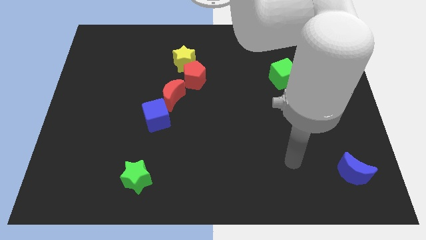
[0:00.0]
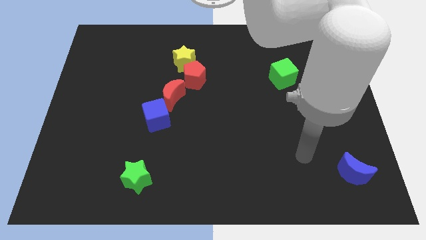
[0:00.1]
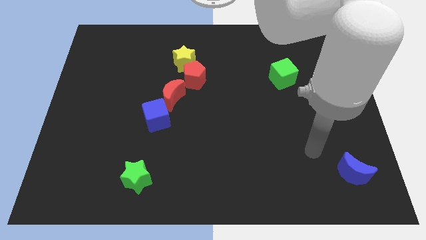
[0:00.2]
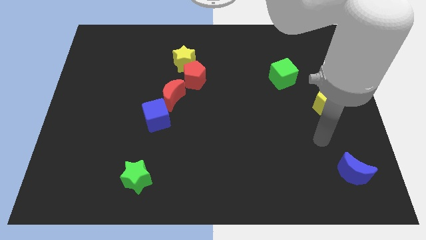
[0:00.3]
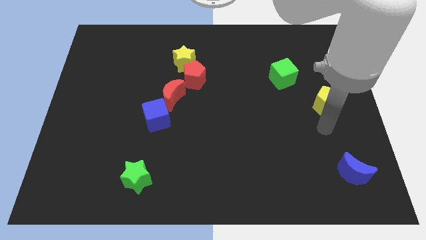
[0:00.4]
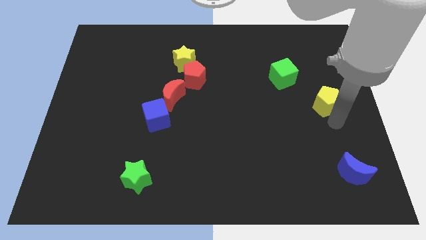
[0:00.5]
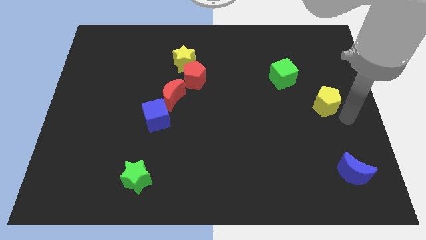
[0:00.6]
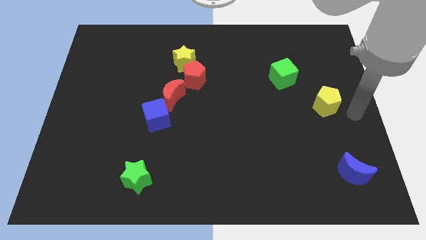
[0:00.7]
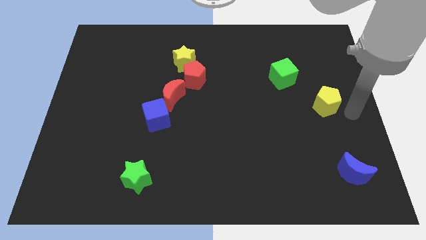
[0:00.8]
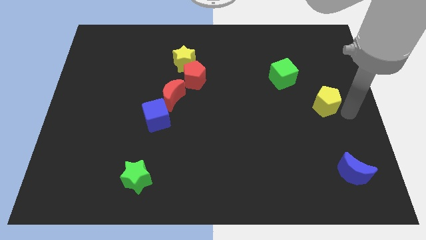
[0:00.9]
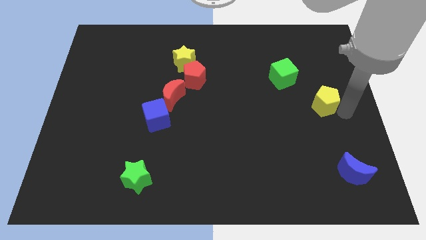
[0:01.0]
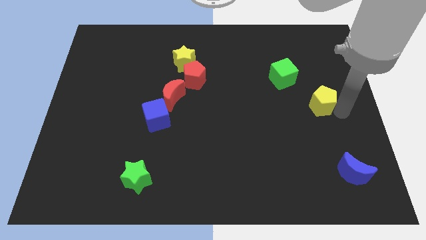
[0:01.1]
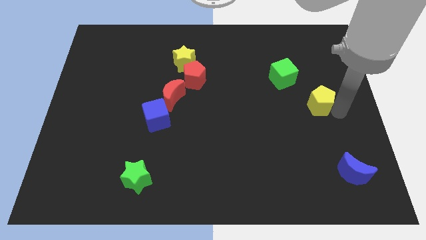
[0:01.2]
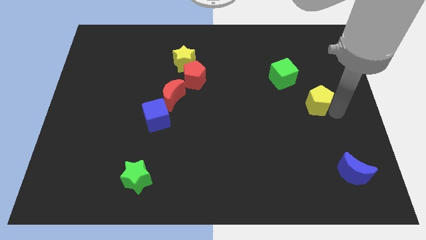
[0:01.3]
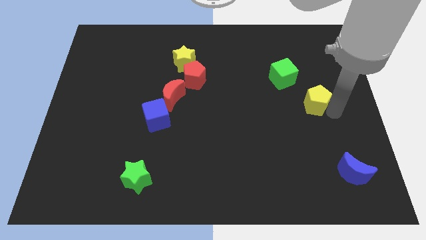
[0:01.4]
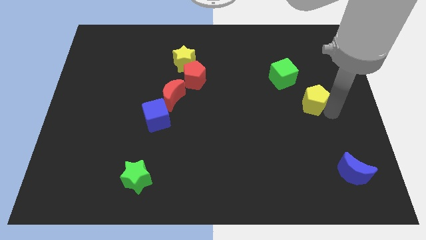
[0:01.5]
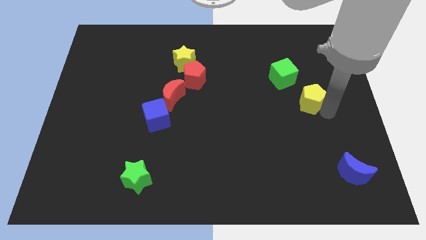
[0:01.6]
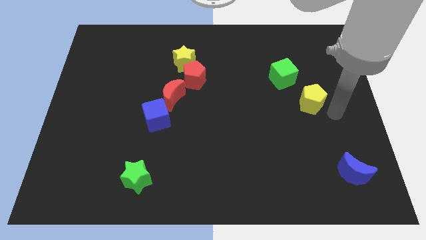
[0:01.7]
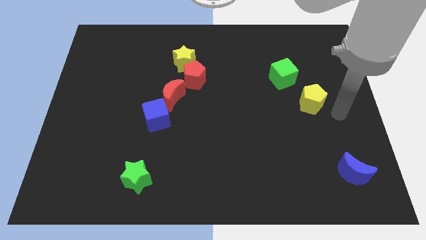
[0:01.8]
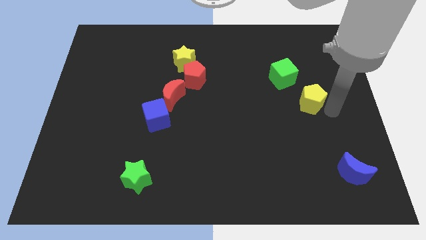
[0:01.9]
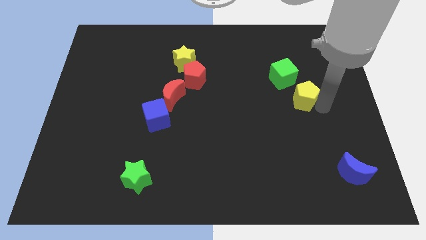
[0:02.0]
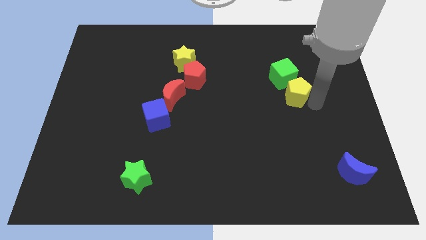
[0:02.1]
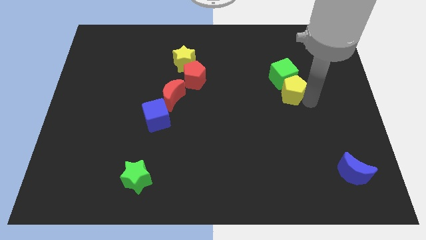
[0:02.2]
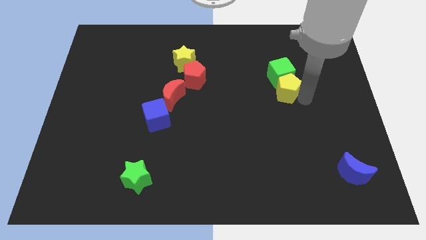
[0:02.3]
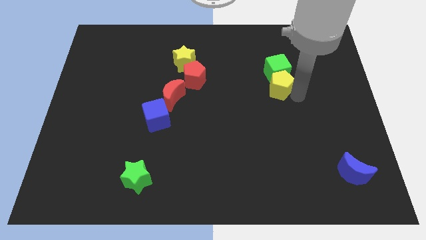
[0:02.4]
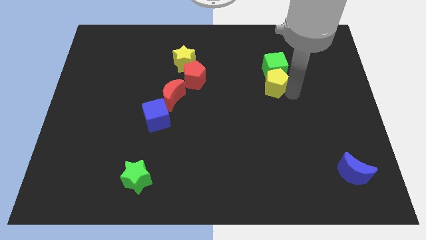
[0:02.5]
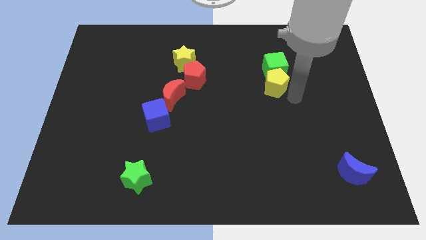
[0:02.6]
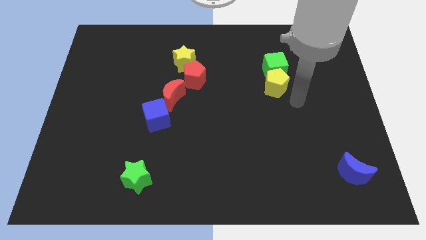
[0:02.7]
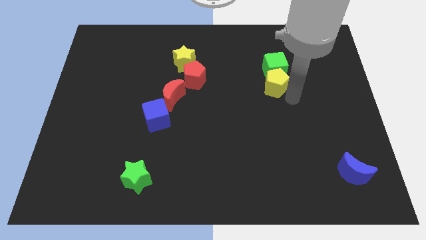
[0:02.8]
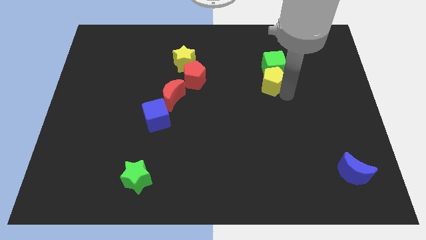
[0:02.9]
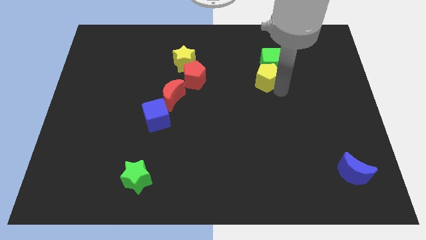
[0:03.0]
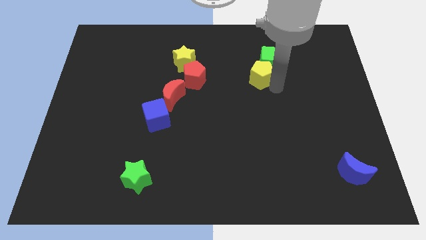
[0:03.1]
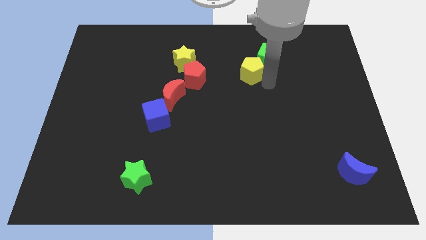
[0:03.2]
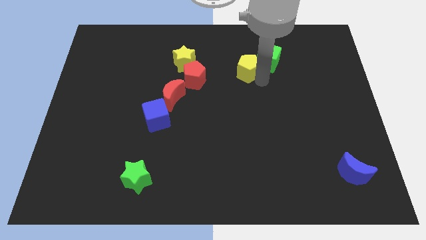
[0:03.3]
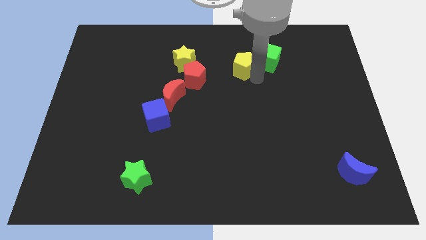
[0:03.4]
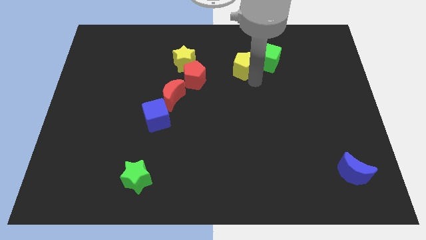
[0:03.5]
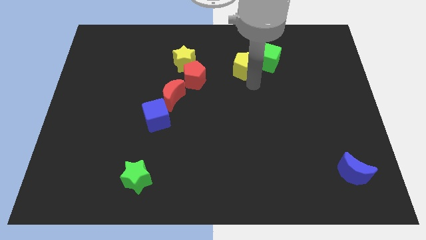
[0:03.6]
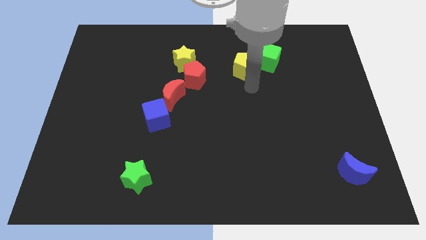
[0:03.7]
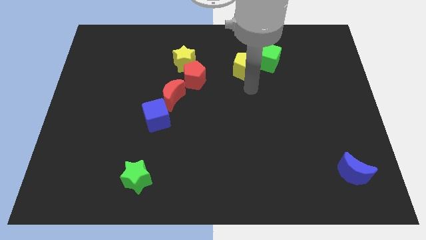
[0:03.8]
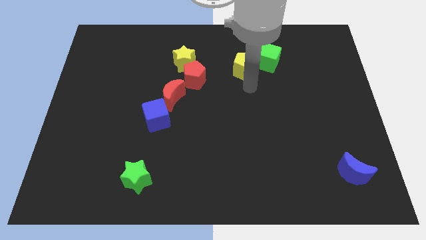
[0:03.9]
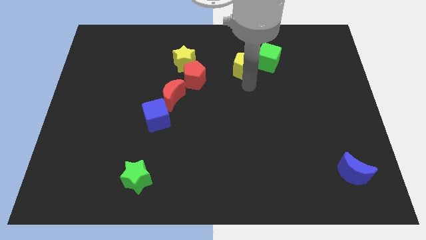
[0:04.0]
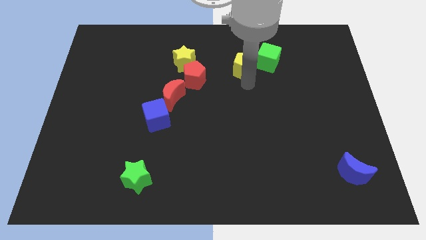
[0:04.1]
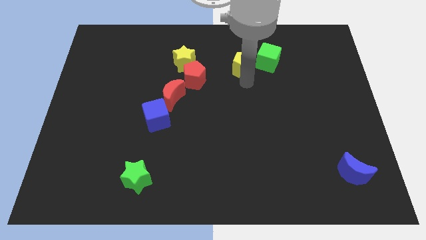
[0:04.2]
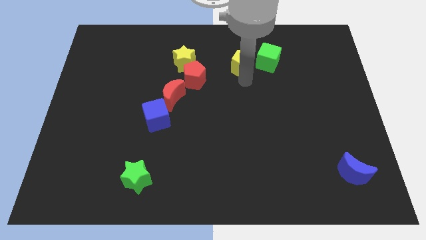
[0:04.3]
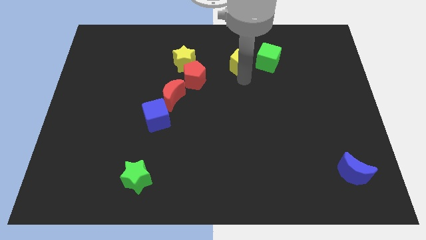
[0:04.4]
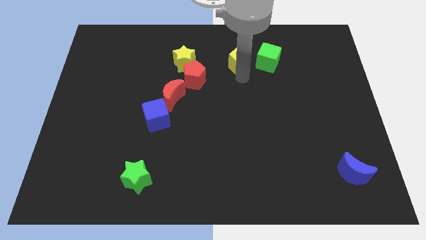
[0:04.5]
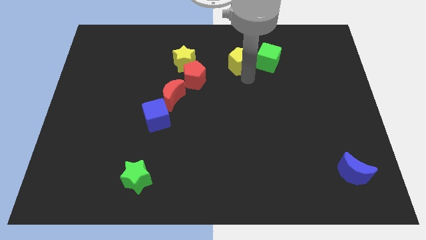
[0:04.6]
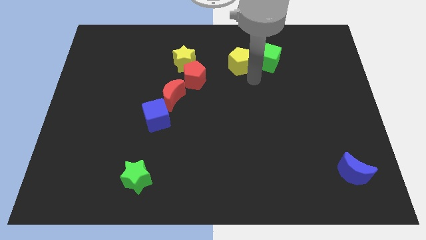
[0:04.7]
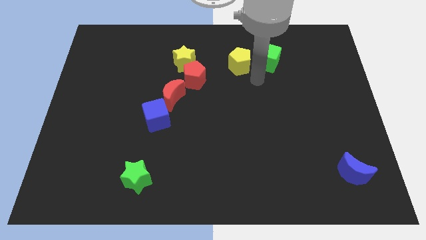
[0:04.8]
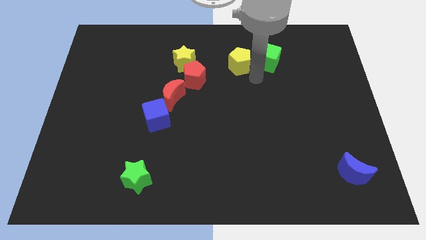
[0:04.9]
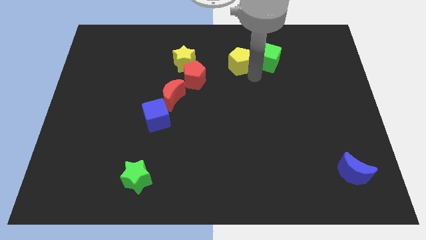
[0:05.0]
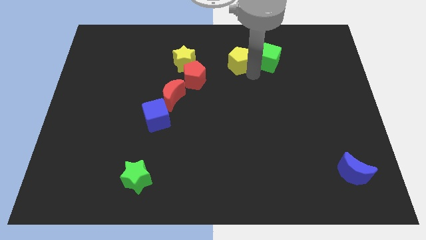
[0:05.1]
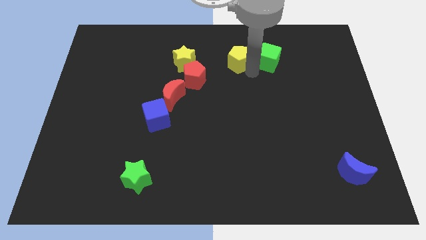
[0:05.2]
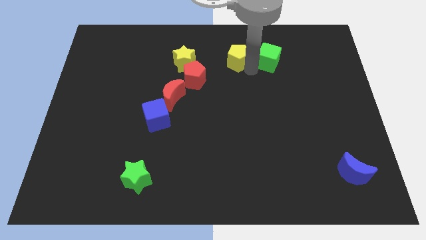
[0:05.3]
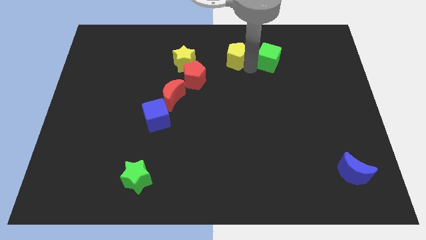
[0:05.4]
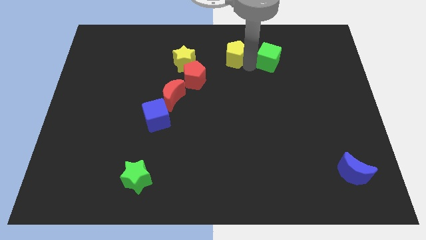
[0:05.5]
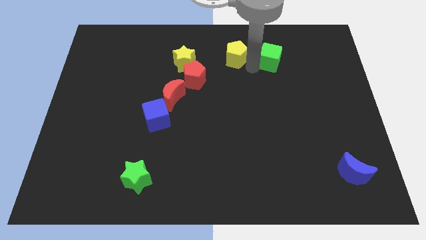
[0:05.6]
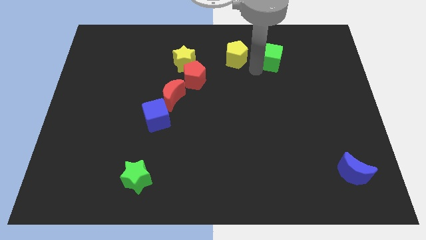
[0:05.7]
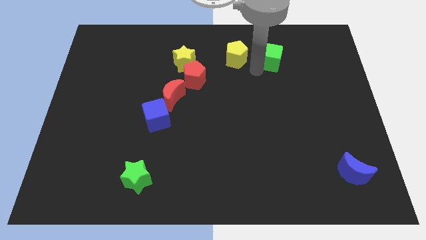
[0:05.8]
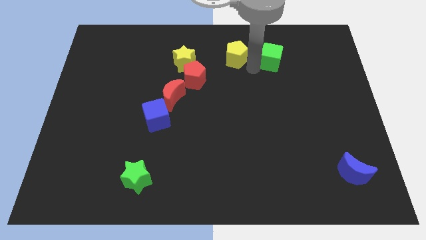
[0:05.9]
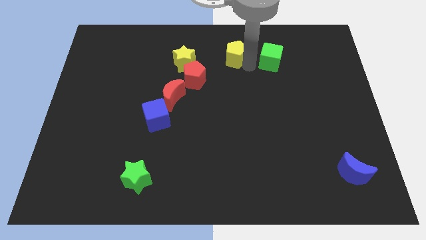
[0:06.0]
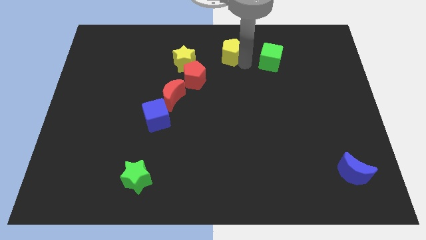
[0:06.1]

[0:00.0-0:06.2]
push the yellow pentagon to the top
